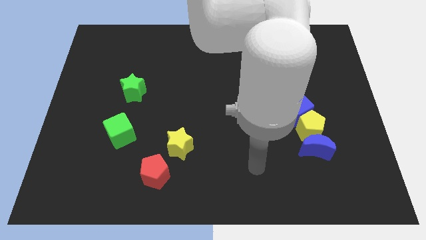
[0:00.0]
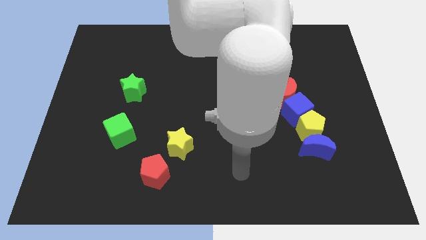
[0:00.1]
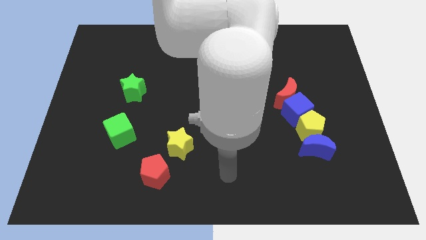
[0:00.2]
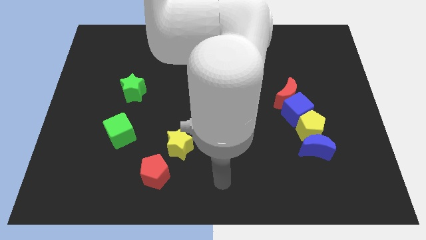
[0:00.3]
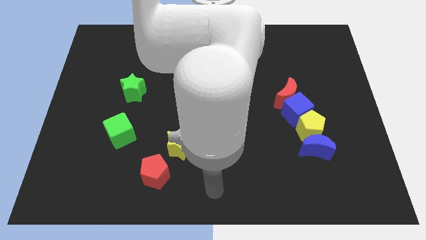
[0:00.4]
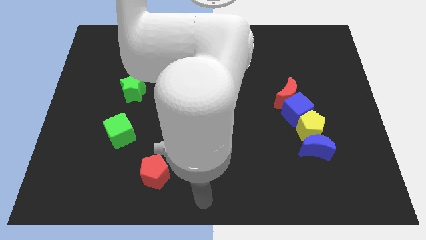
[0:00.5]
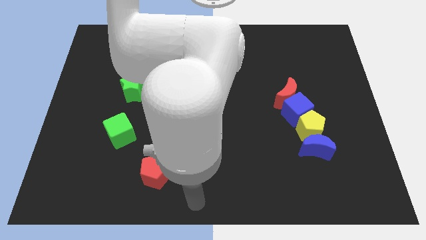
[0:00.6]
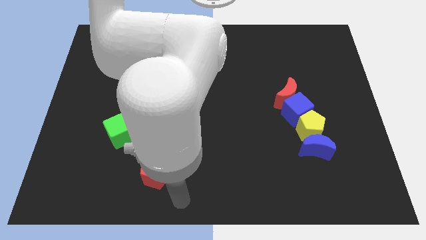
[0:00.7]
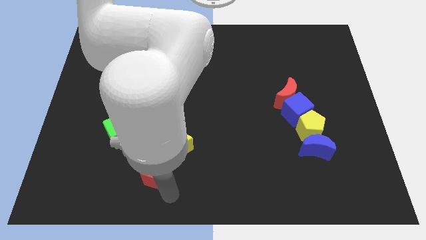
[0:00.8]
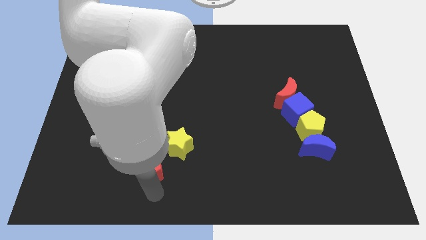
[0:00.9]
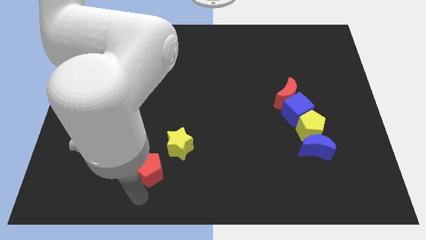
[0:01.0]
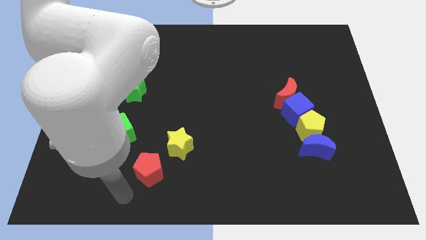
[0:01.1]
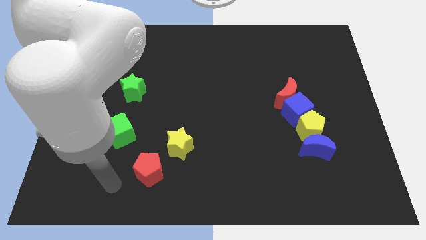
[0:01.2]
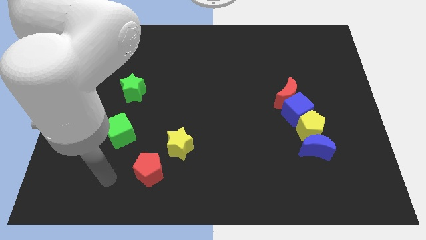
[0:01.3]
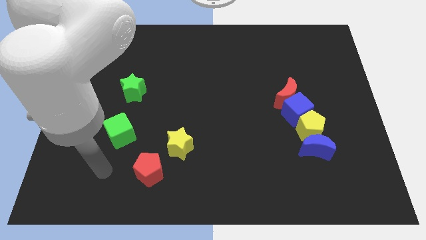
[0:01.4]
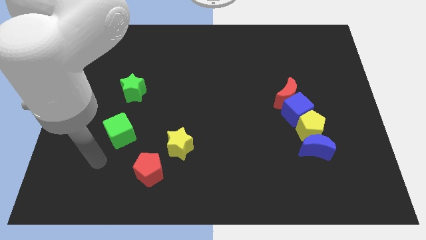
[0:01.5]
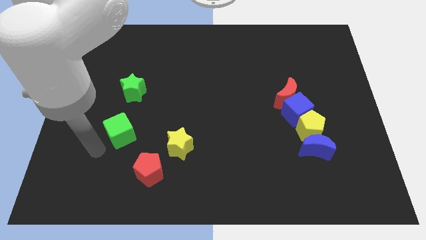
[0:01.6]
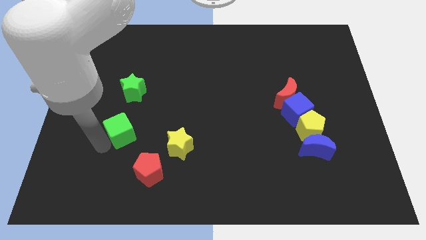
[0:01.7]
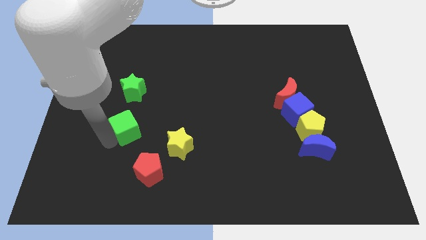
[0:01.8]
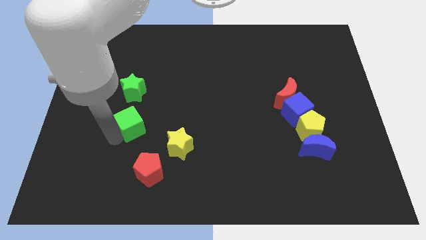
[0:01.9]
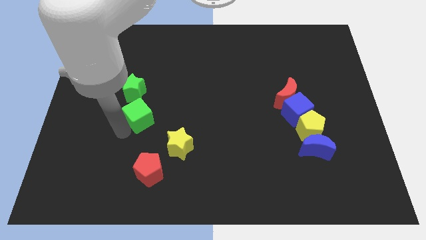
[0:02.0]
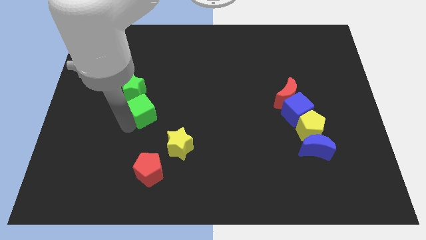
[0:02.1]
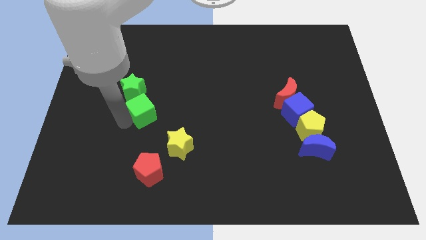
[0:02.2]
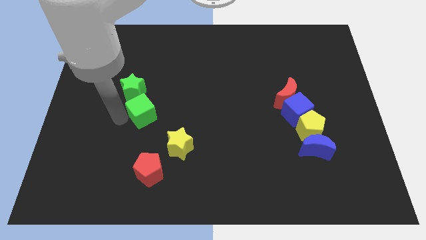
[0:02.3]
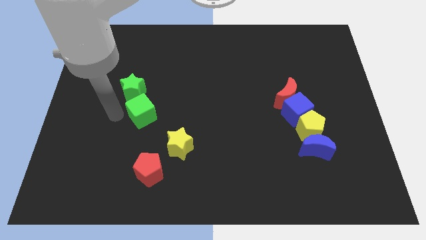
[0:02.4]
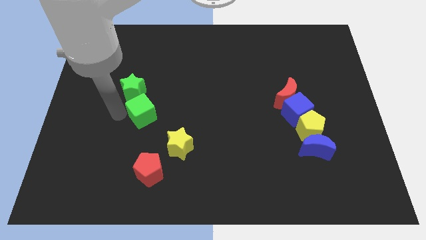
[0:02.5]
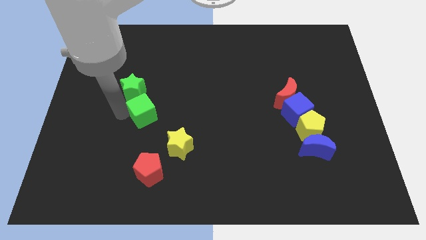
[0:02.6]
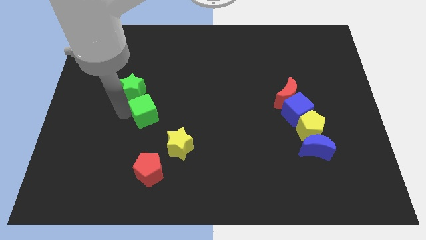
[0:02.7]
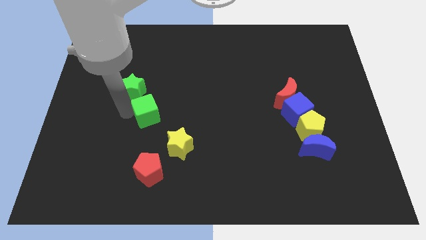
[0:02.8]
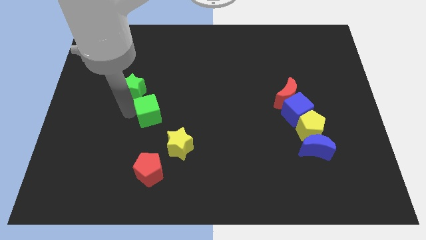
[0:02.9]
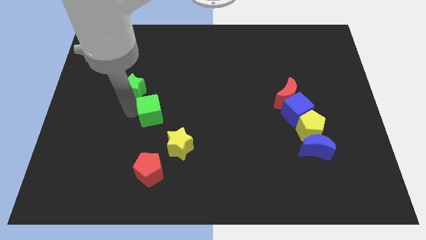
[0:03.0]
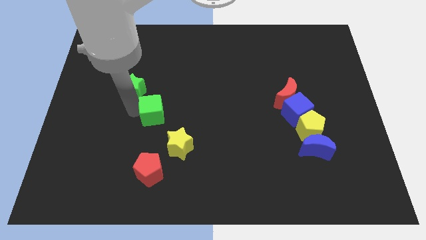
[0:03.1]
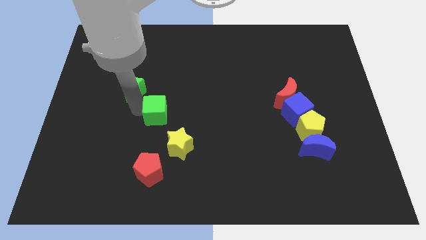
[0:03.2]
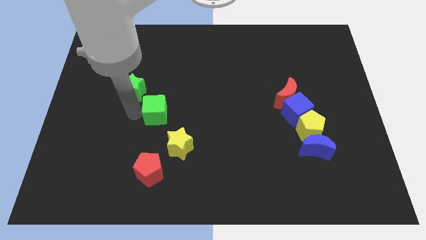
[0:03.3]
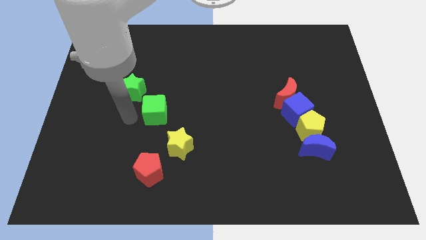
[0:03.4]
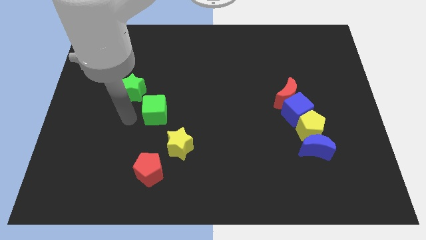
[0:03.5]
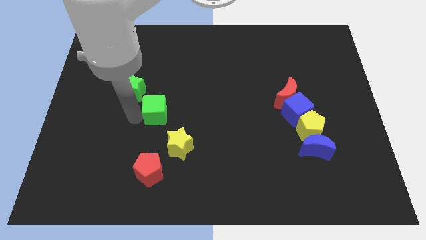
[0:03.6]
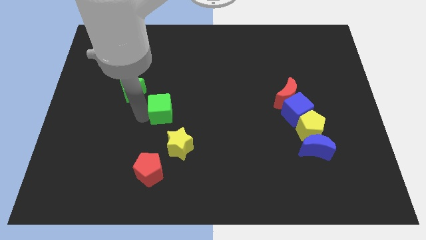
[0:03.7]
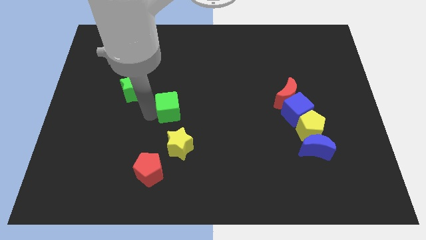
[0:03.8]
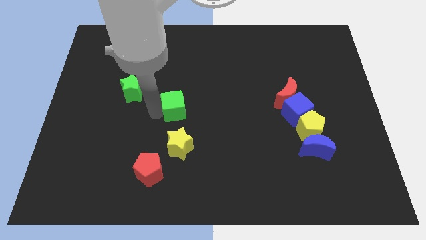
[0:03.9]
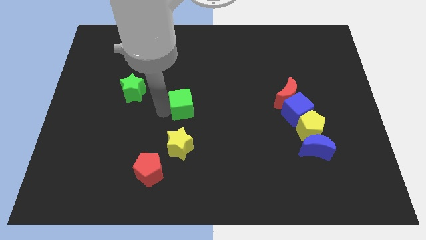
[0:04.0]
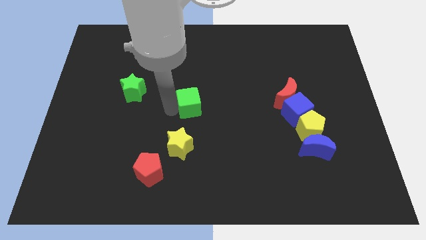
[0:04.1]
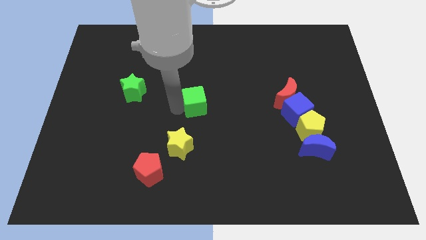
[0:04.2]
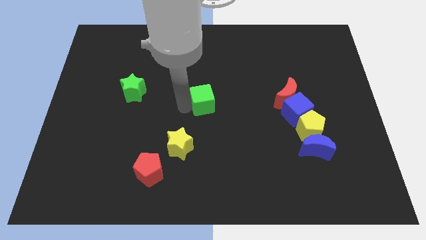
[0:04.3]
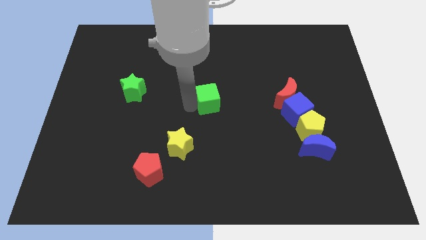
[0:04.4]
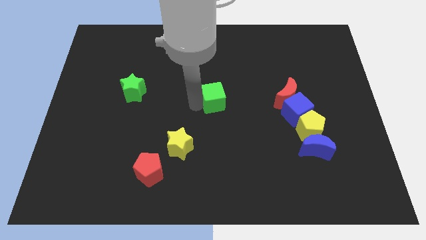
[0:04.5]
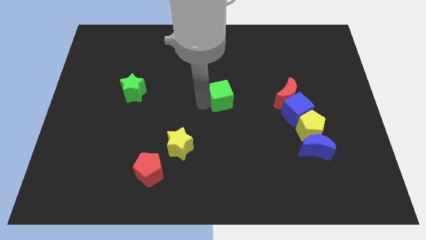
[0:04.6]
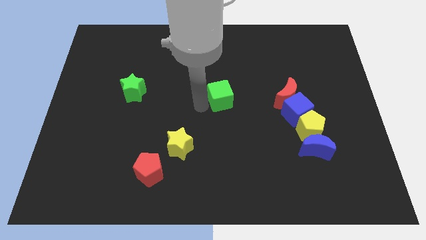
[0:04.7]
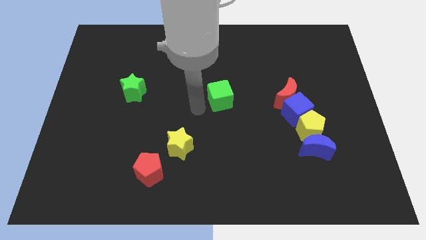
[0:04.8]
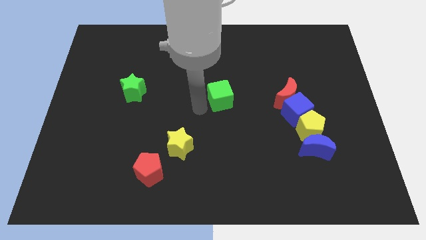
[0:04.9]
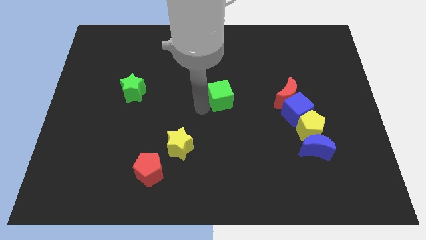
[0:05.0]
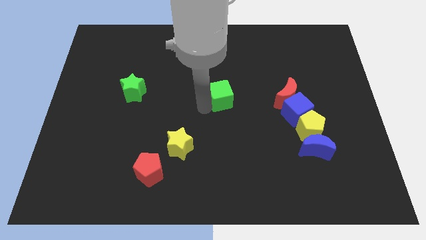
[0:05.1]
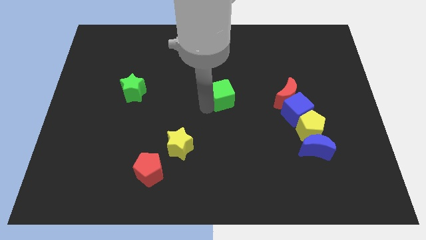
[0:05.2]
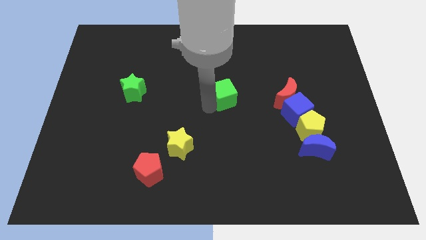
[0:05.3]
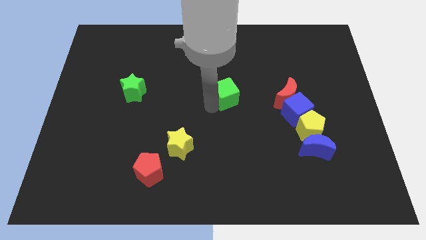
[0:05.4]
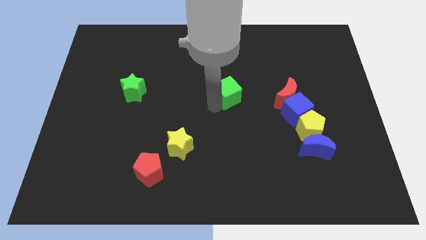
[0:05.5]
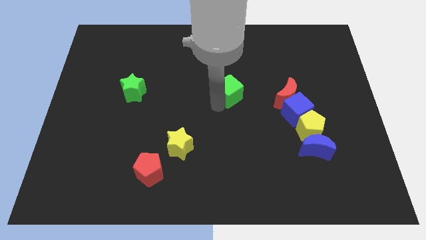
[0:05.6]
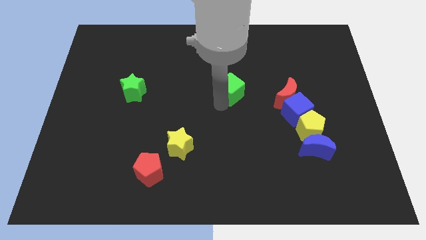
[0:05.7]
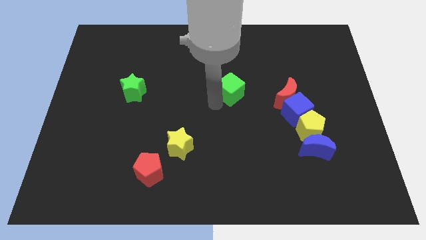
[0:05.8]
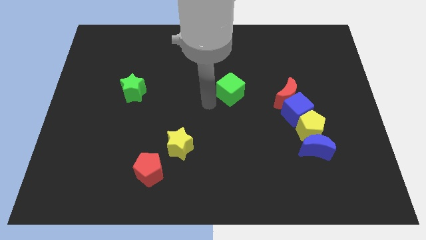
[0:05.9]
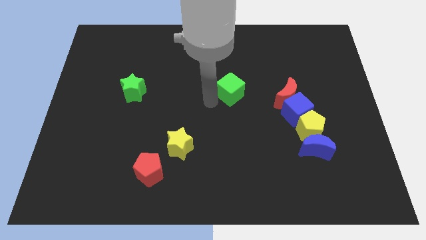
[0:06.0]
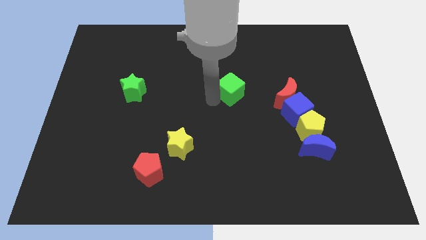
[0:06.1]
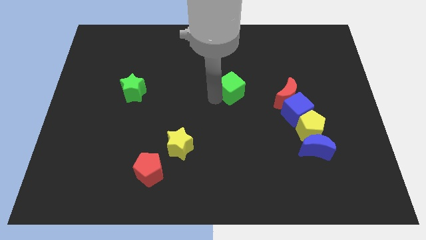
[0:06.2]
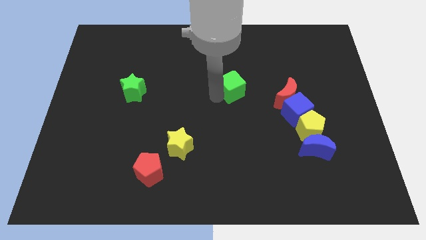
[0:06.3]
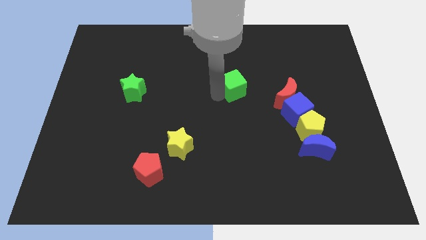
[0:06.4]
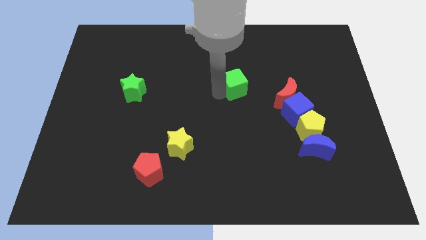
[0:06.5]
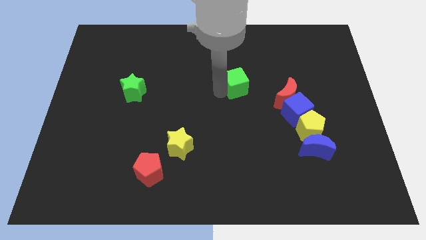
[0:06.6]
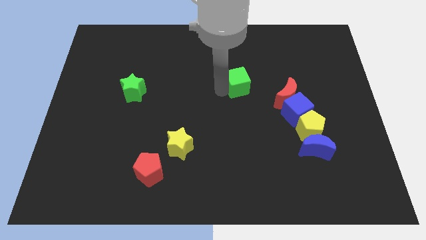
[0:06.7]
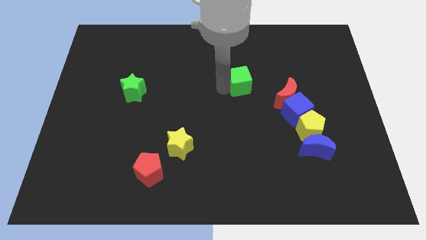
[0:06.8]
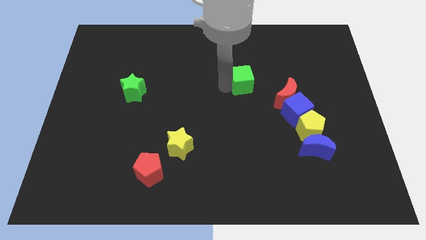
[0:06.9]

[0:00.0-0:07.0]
move the green cube to the top left side of the red moon

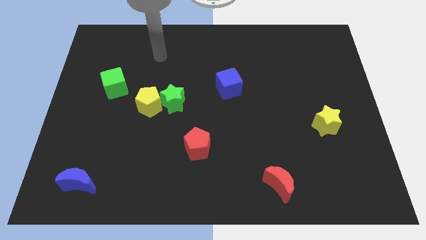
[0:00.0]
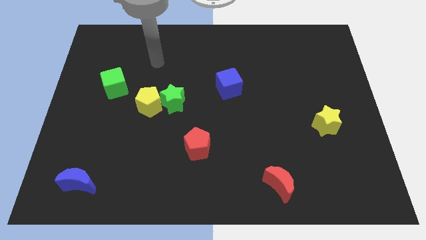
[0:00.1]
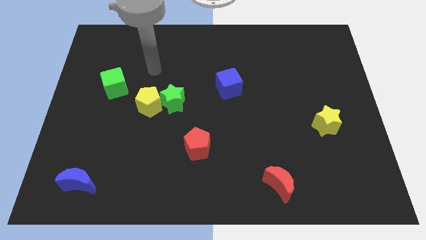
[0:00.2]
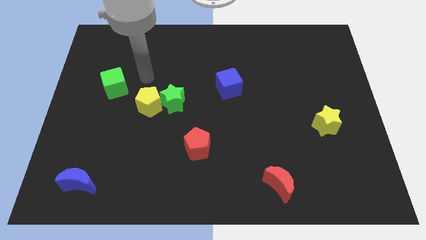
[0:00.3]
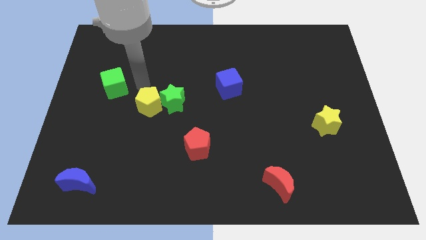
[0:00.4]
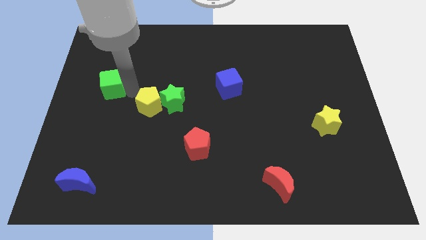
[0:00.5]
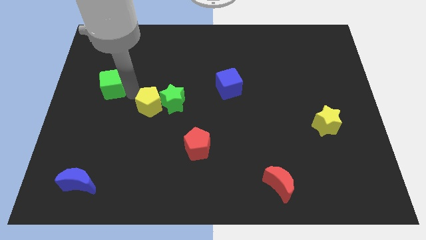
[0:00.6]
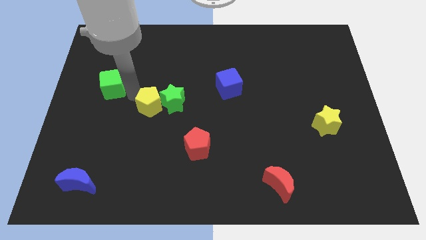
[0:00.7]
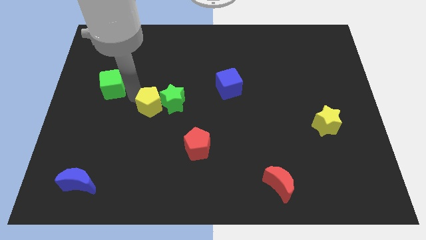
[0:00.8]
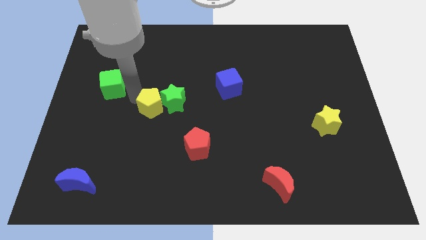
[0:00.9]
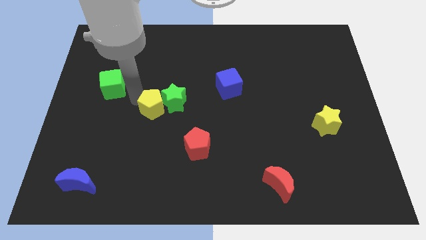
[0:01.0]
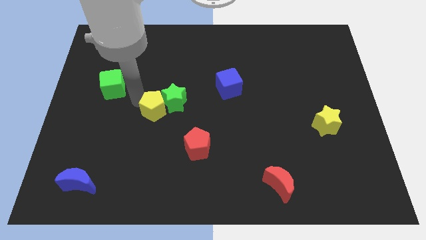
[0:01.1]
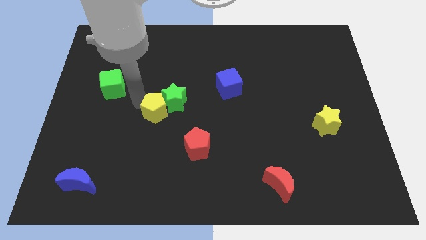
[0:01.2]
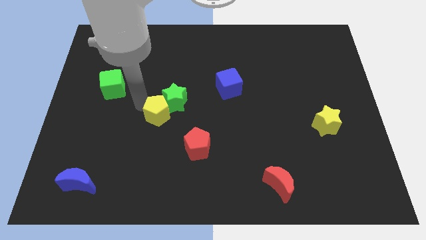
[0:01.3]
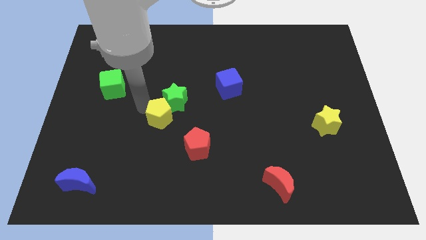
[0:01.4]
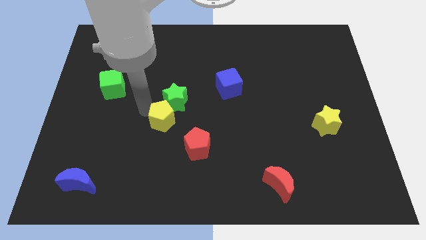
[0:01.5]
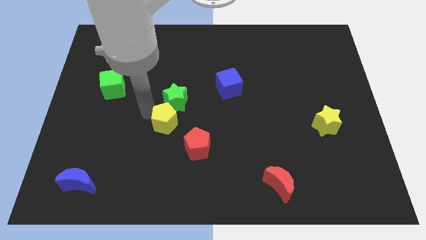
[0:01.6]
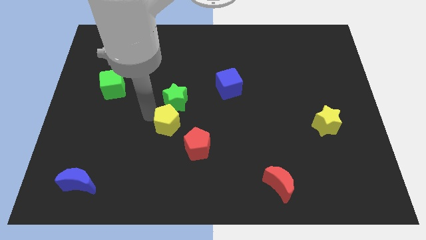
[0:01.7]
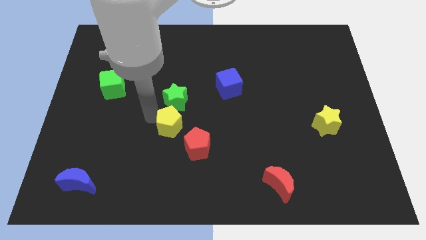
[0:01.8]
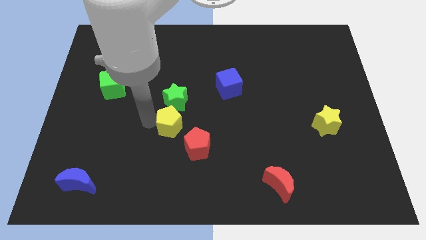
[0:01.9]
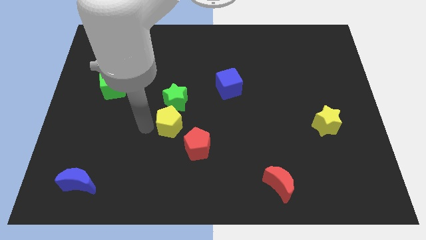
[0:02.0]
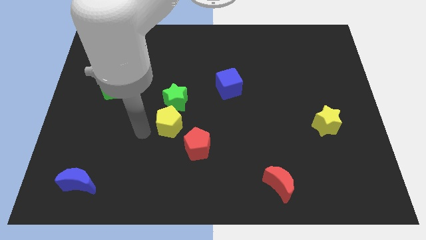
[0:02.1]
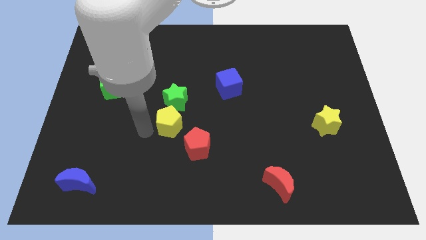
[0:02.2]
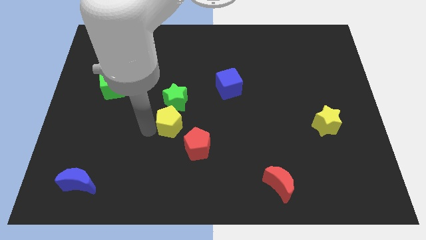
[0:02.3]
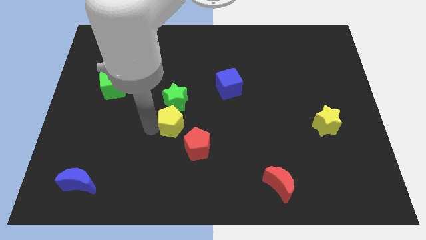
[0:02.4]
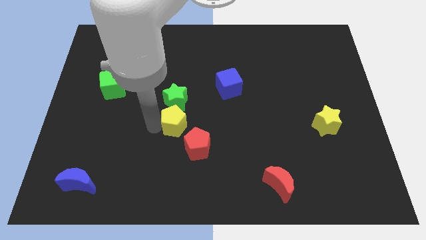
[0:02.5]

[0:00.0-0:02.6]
move the yellow pentagon diagonally down and to the right of the green star
